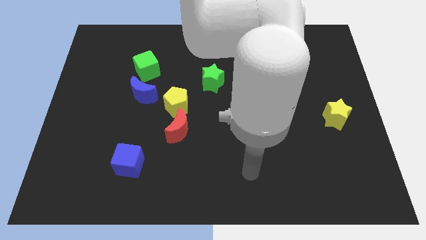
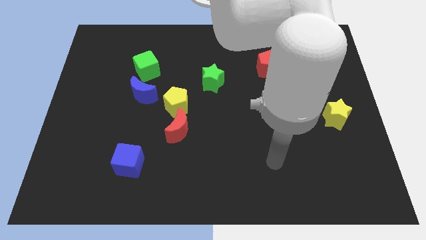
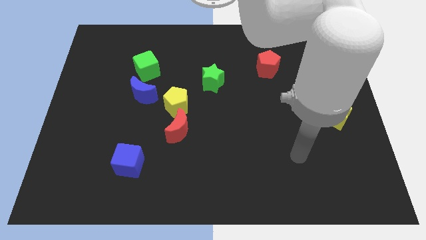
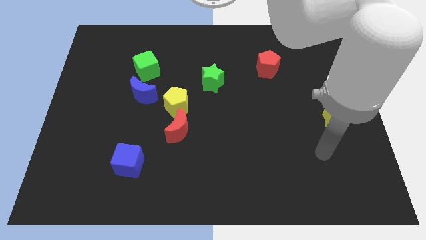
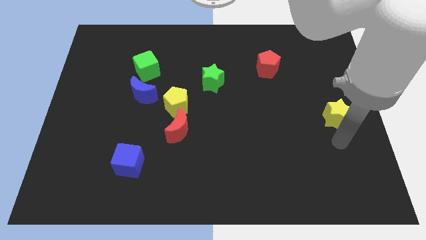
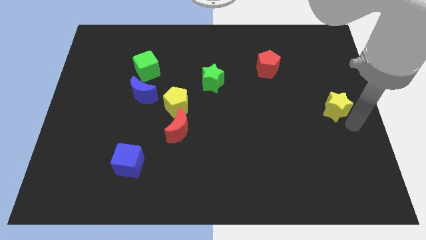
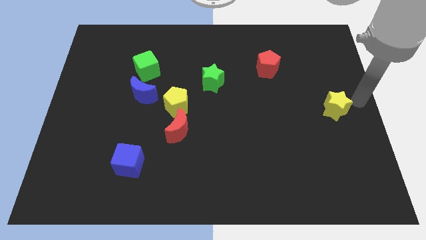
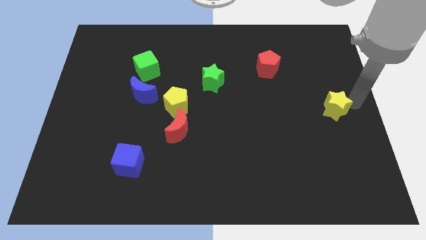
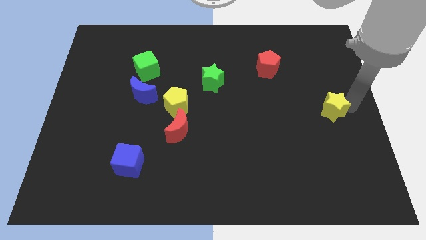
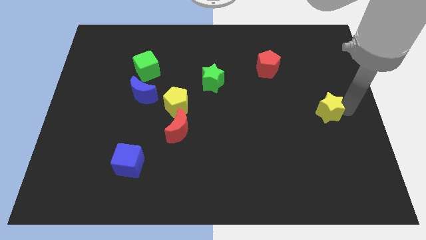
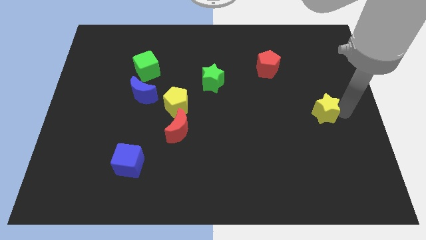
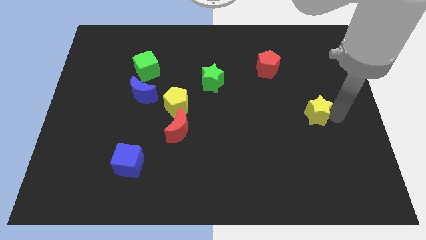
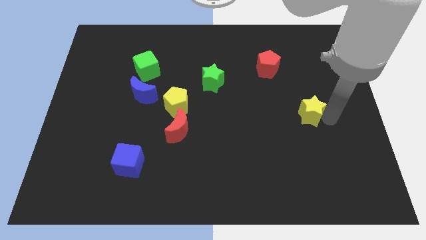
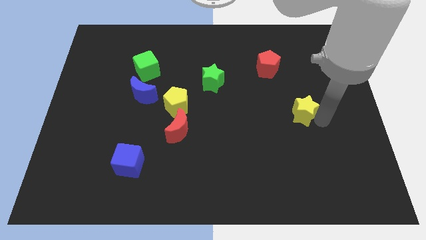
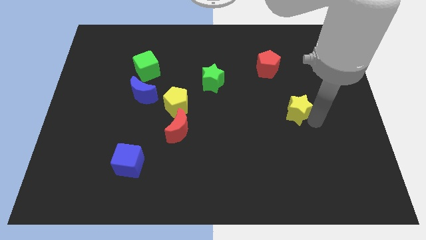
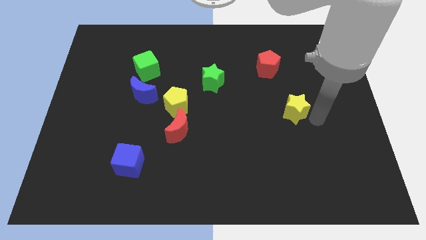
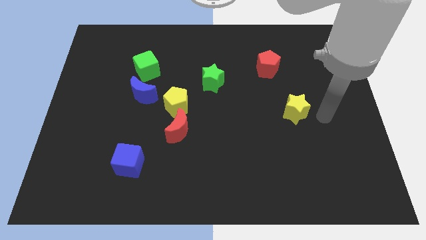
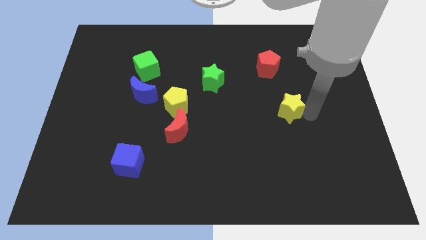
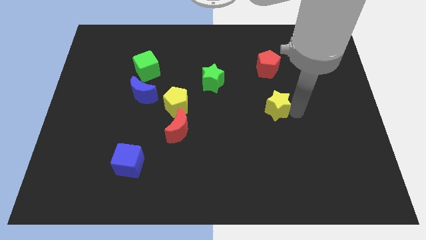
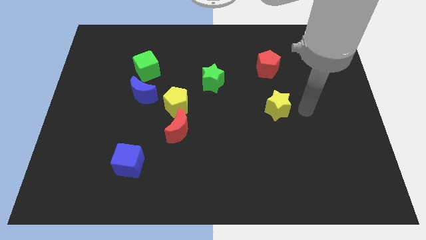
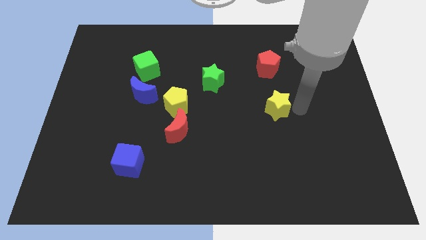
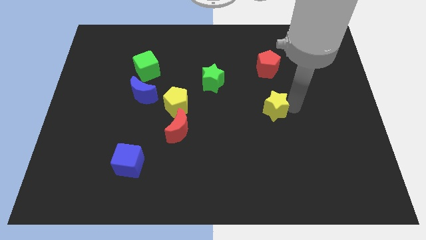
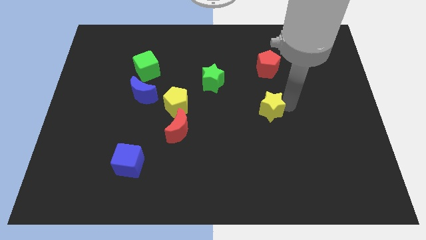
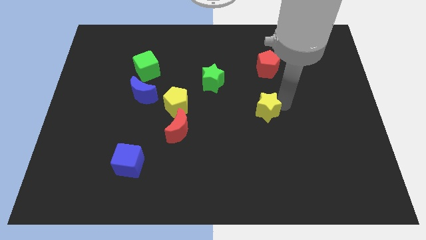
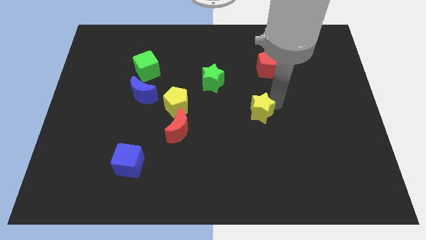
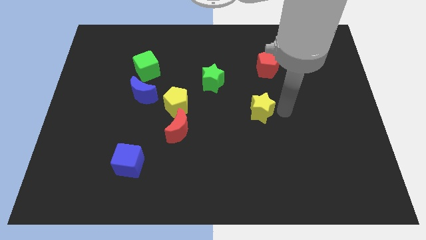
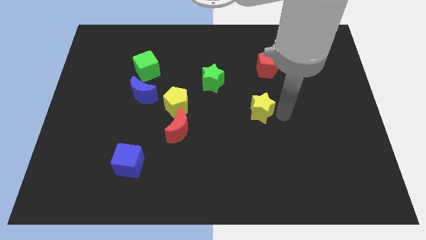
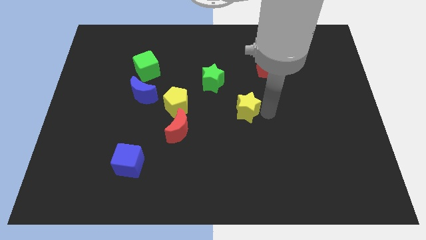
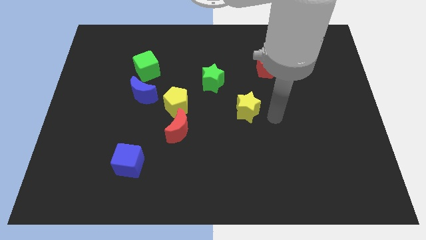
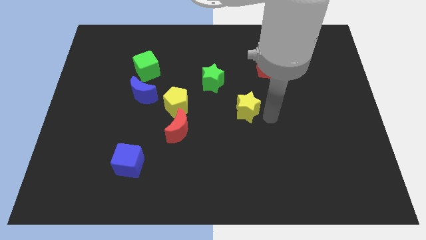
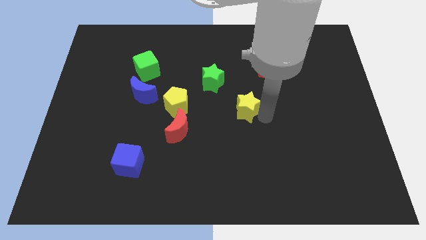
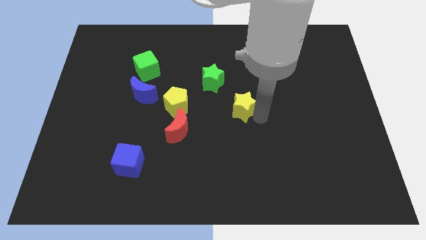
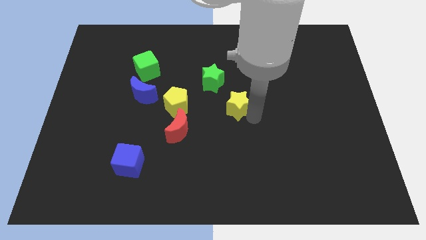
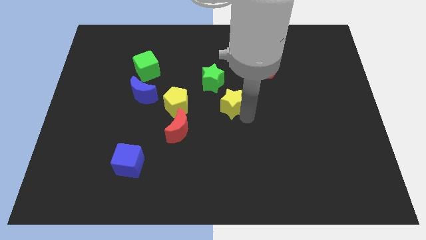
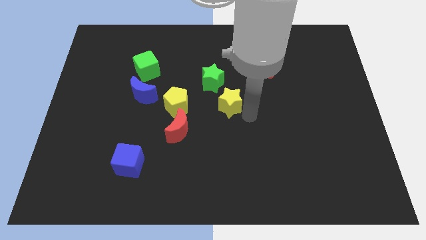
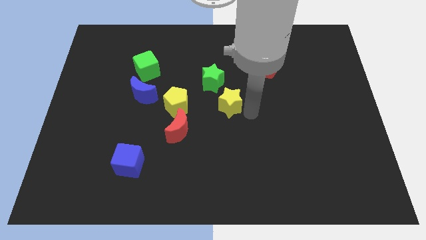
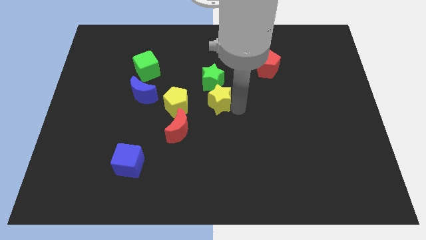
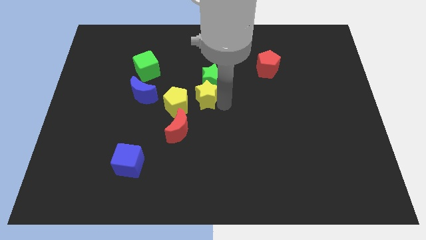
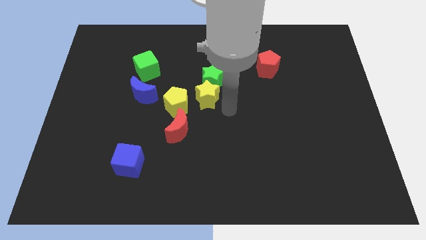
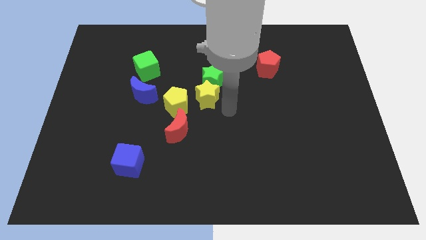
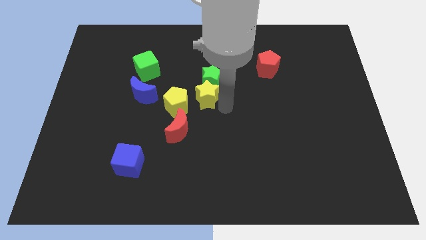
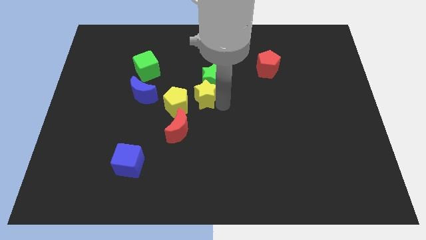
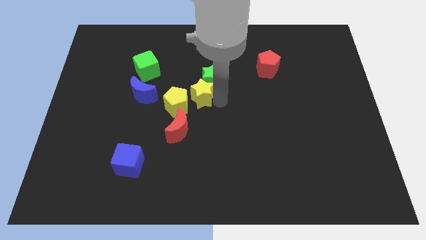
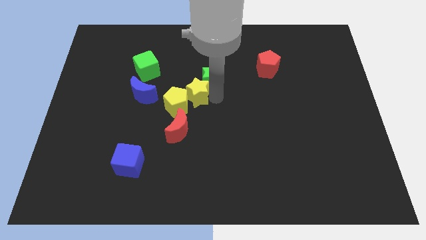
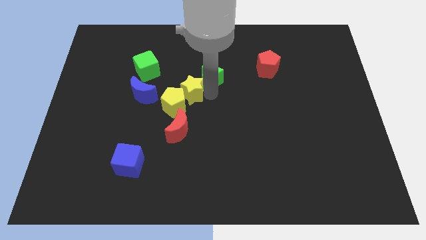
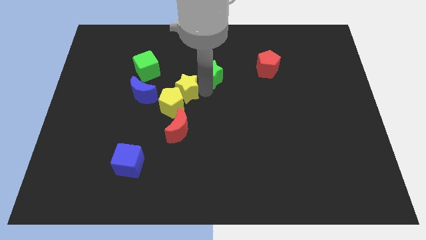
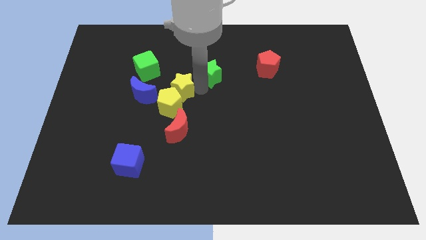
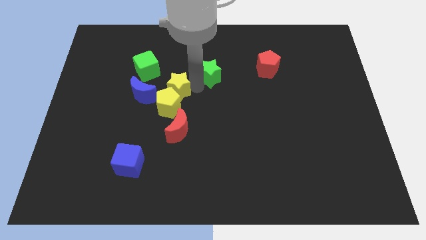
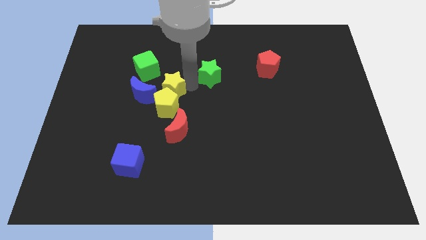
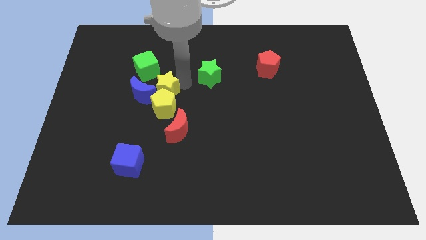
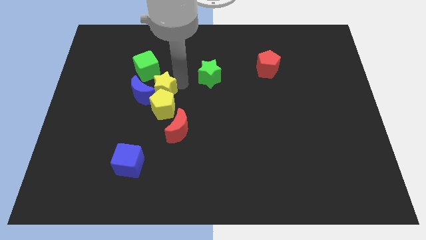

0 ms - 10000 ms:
move the yellow star to the blue moon

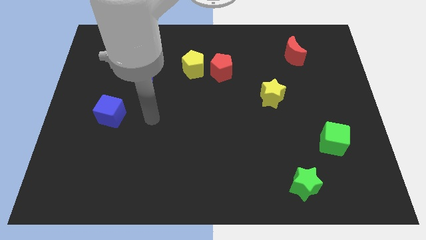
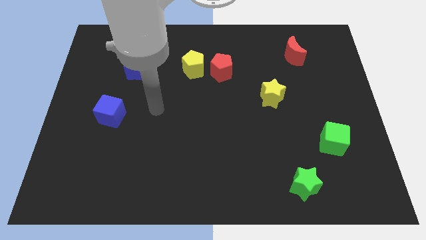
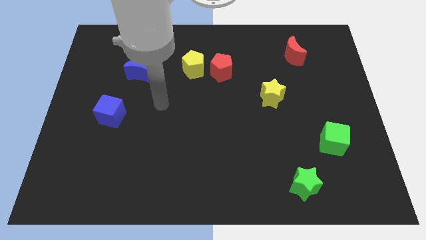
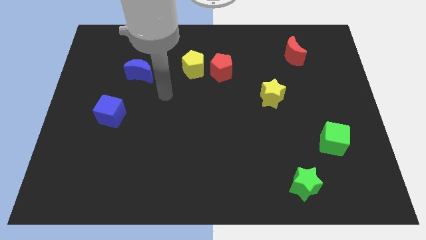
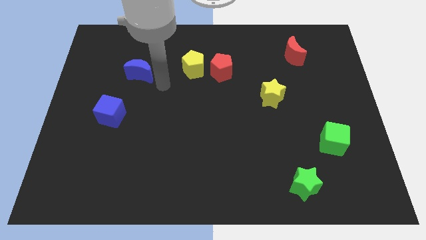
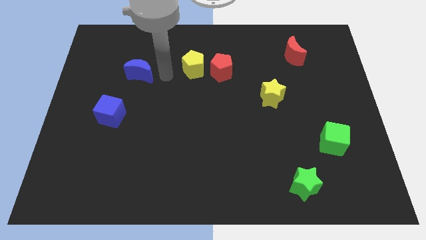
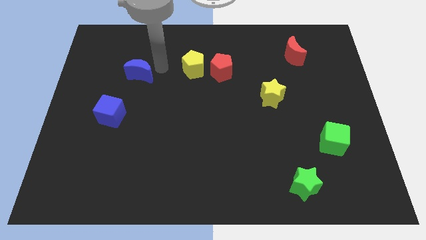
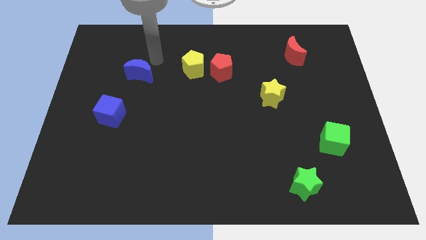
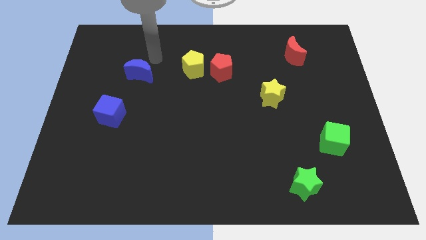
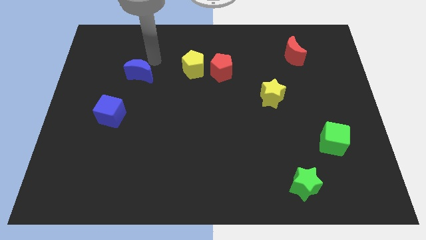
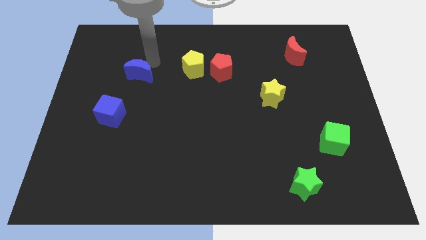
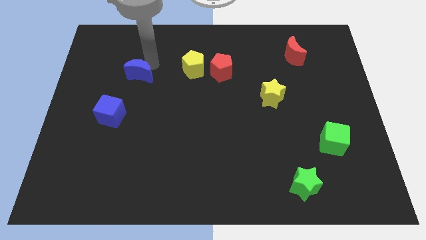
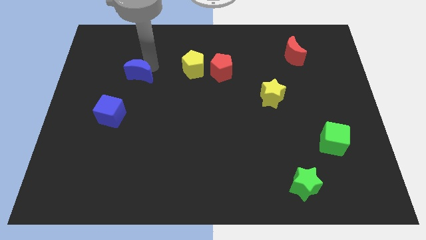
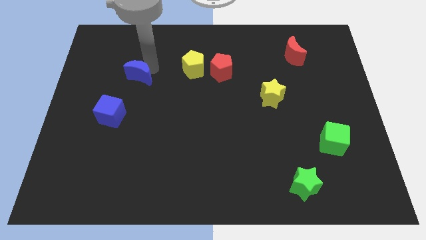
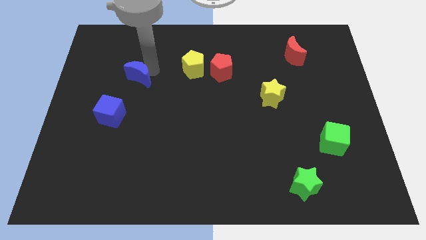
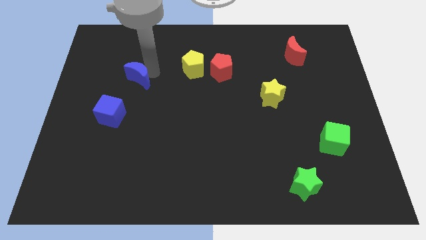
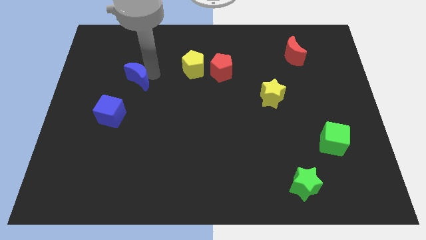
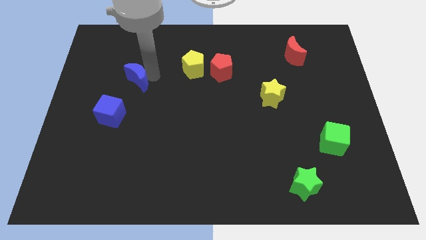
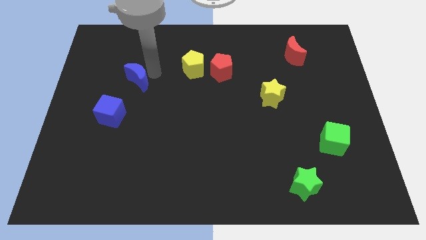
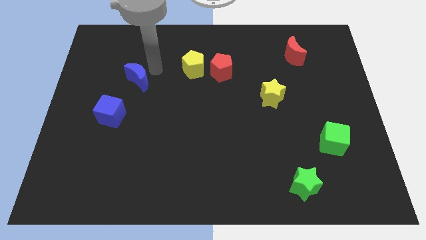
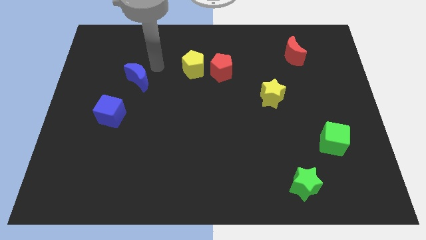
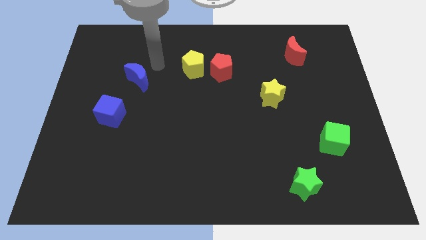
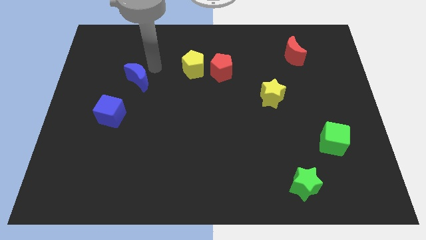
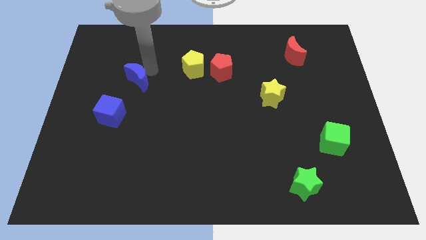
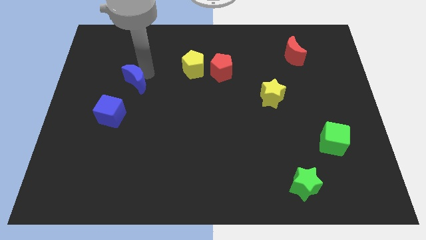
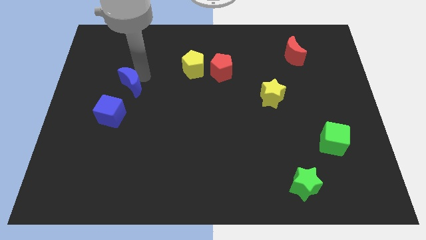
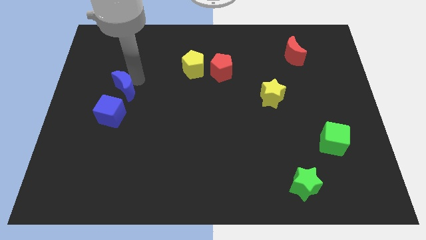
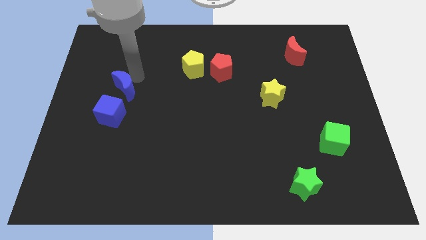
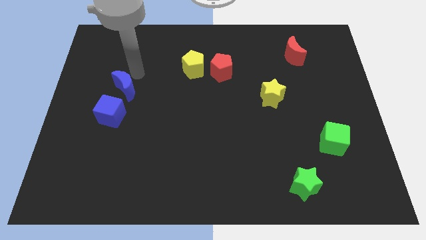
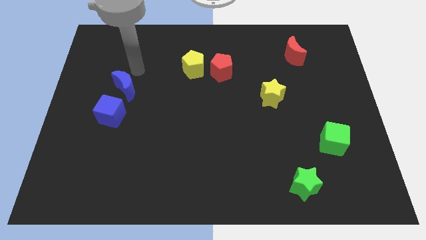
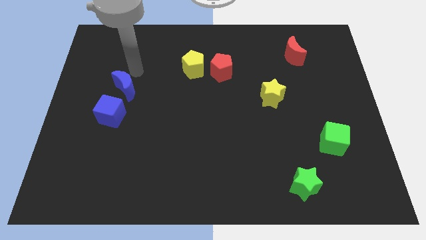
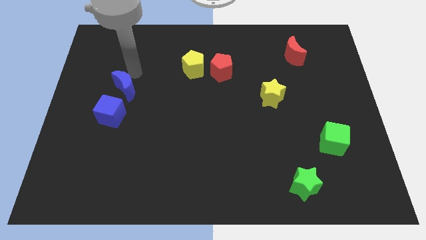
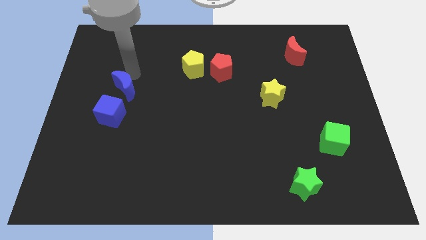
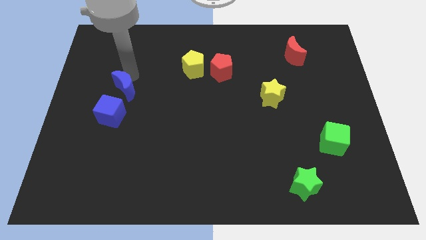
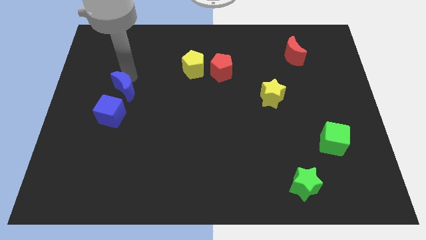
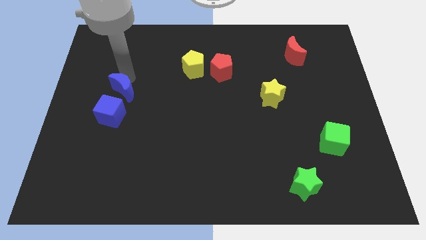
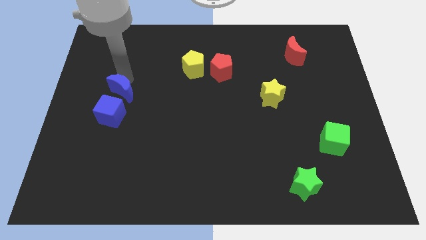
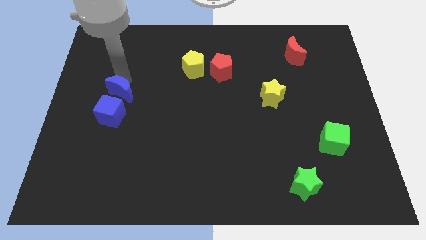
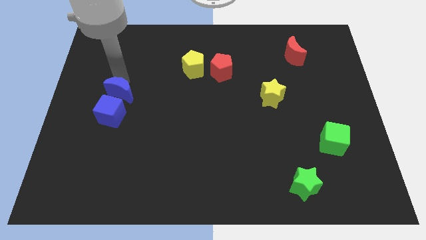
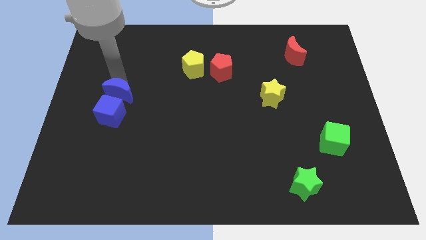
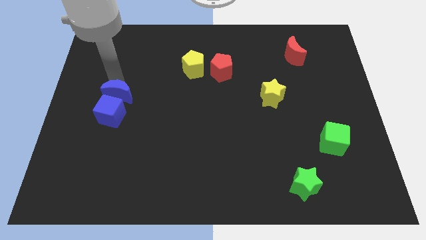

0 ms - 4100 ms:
move the blue moon close to the blue cube
